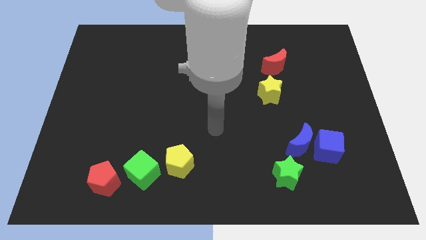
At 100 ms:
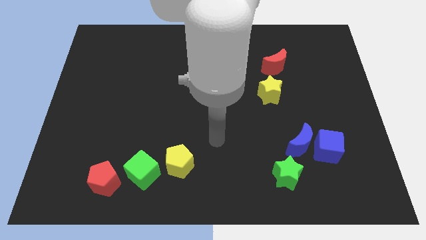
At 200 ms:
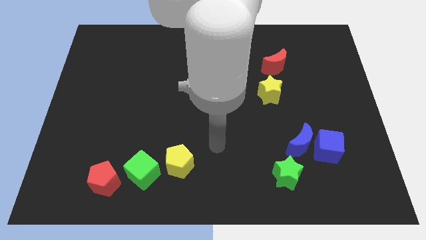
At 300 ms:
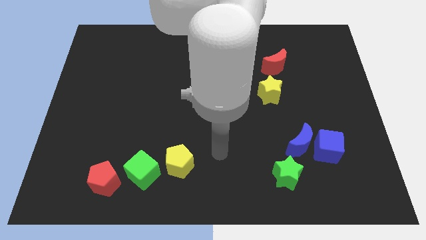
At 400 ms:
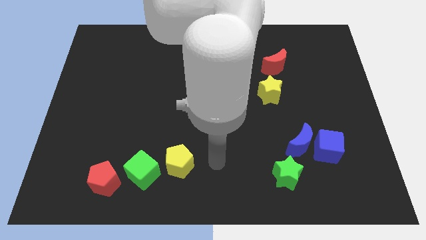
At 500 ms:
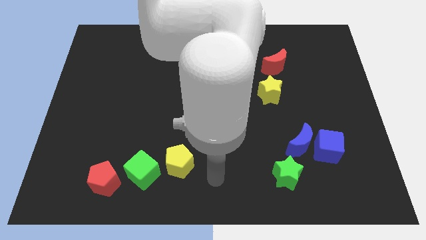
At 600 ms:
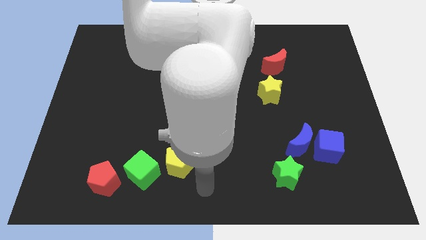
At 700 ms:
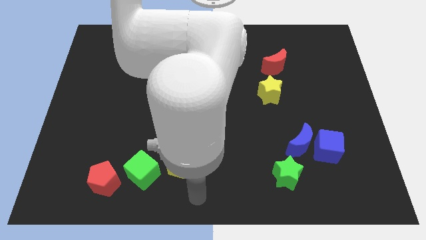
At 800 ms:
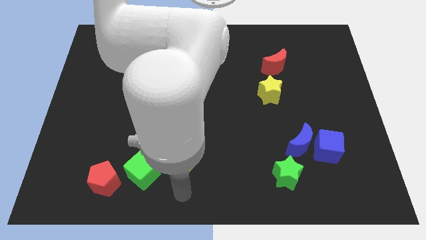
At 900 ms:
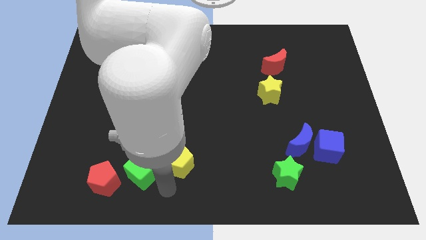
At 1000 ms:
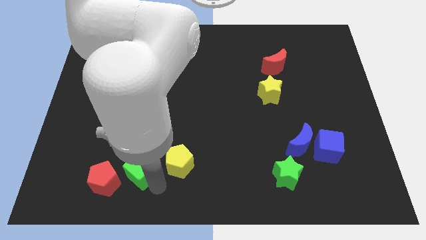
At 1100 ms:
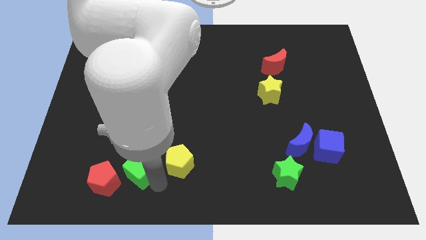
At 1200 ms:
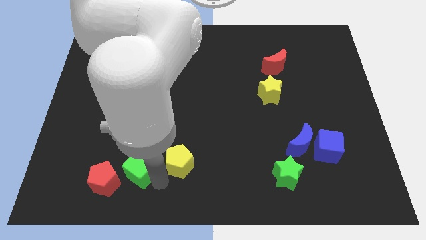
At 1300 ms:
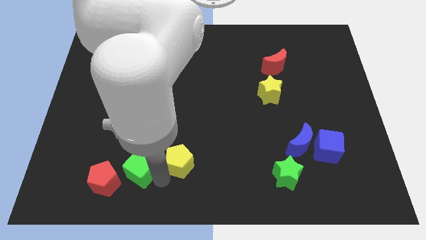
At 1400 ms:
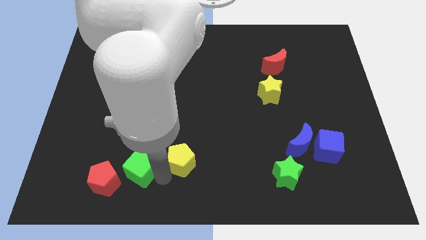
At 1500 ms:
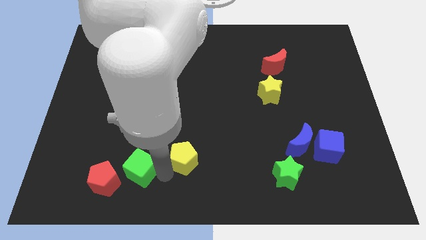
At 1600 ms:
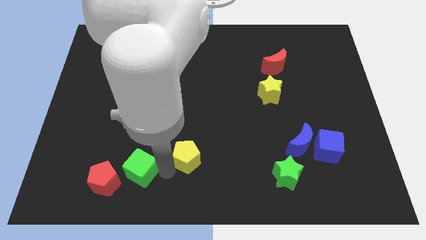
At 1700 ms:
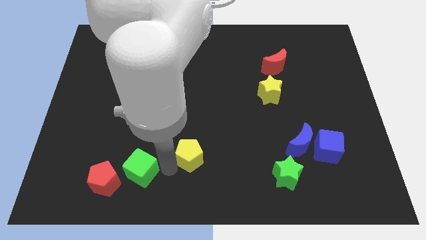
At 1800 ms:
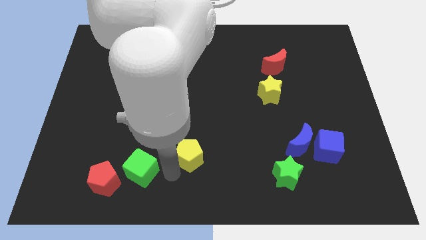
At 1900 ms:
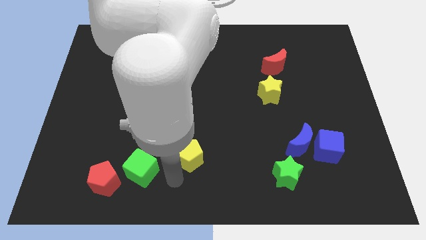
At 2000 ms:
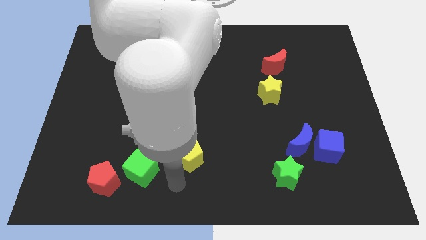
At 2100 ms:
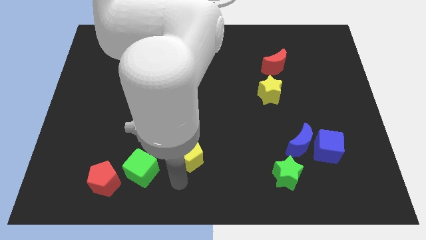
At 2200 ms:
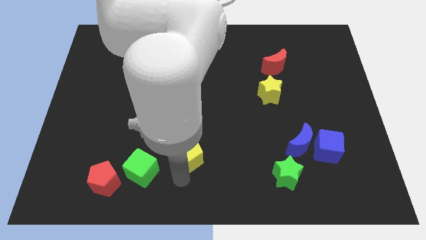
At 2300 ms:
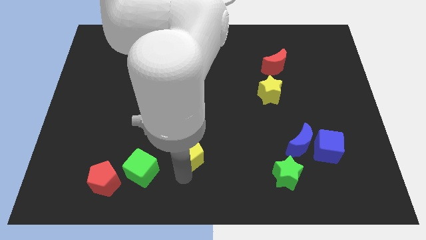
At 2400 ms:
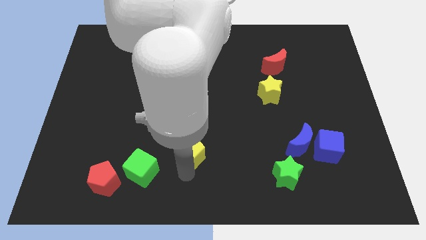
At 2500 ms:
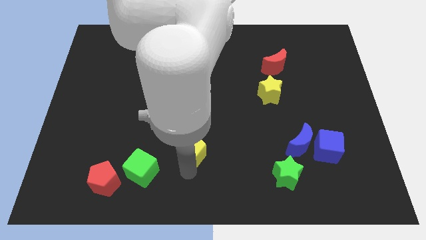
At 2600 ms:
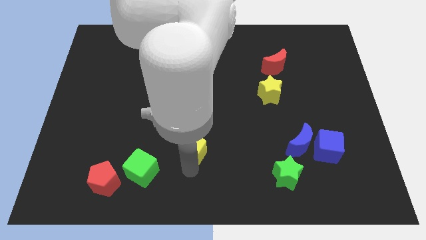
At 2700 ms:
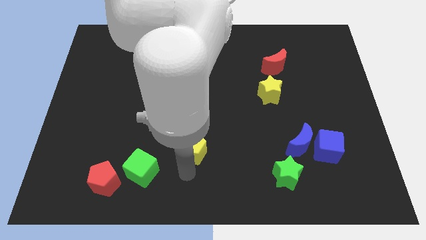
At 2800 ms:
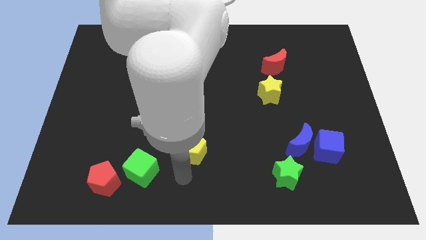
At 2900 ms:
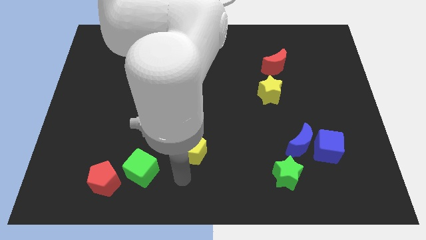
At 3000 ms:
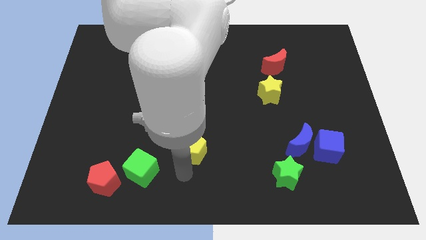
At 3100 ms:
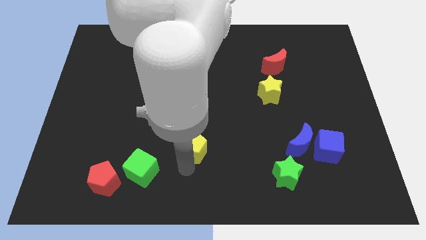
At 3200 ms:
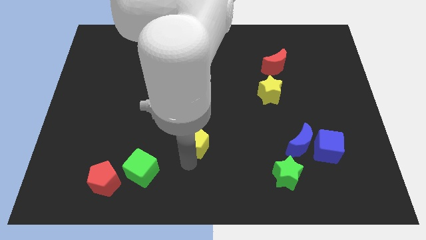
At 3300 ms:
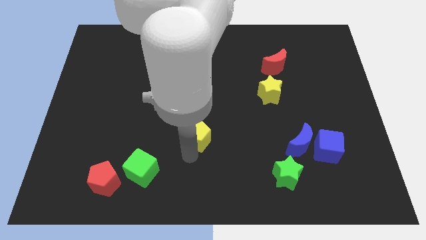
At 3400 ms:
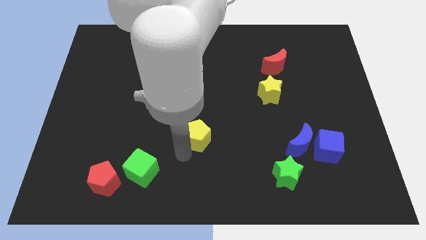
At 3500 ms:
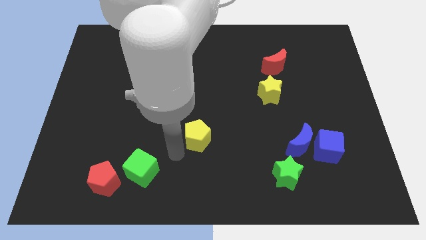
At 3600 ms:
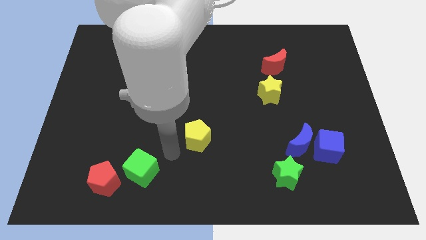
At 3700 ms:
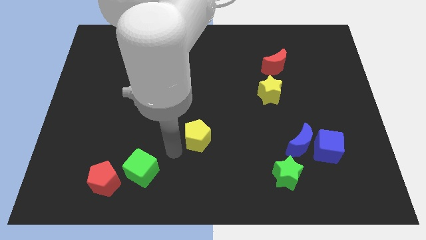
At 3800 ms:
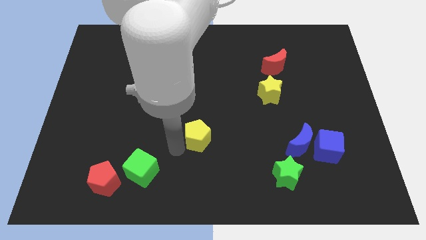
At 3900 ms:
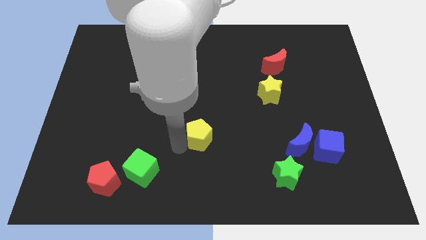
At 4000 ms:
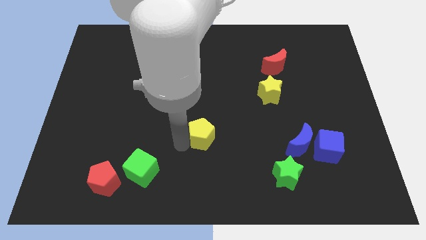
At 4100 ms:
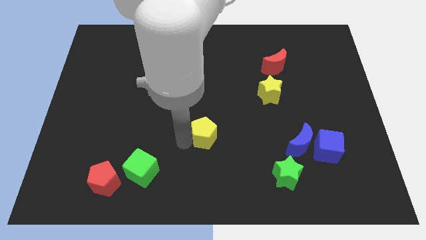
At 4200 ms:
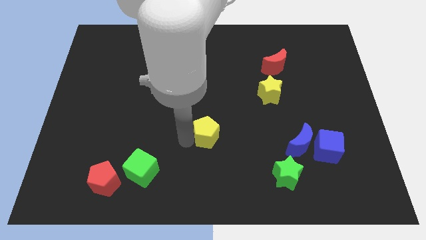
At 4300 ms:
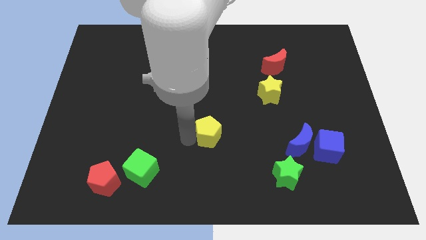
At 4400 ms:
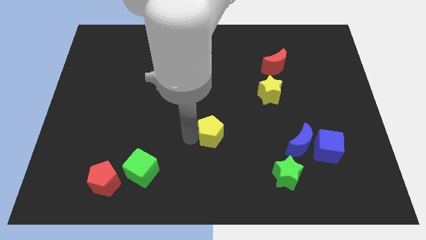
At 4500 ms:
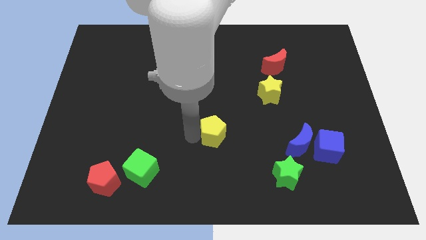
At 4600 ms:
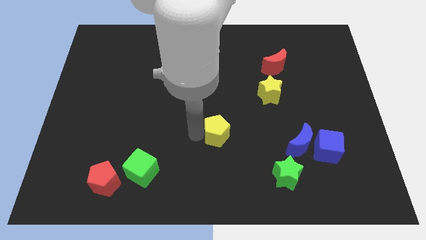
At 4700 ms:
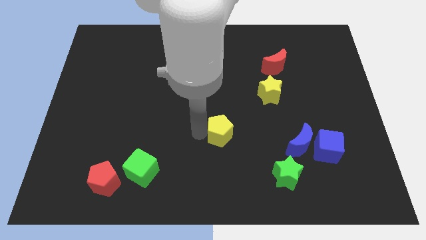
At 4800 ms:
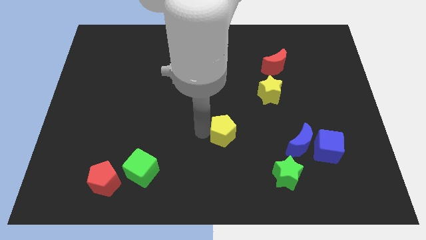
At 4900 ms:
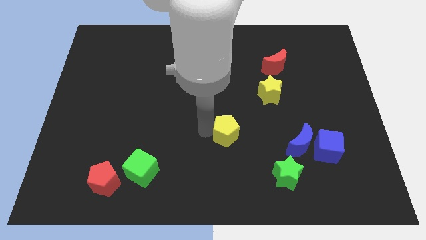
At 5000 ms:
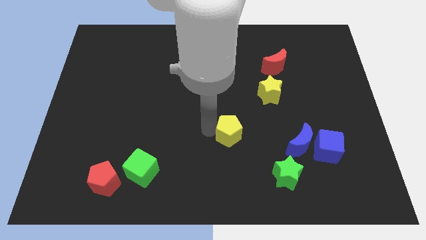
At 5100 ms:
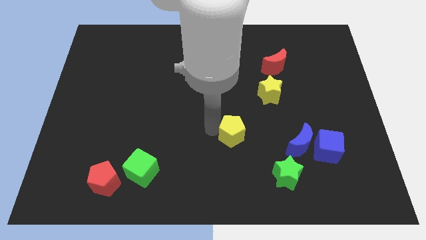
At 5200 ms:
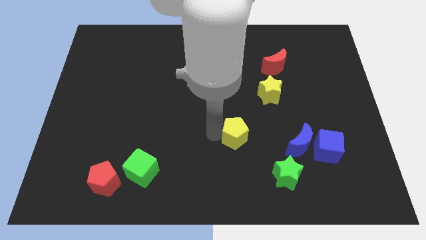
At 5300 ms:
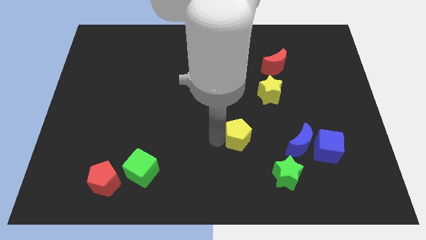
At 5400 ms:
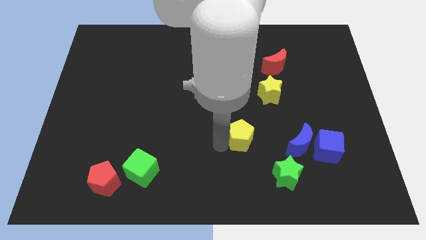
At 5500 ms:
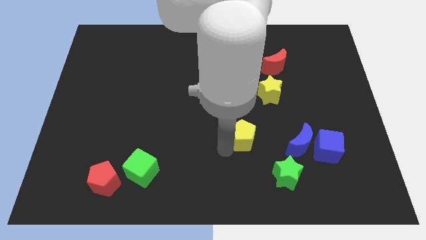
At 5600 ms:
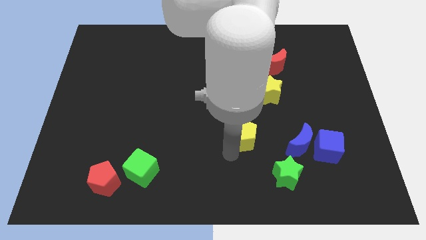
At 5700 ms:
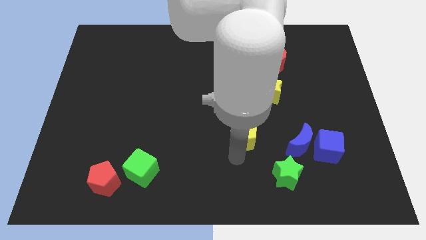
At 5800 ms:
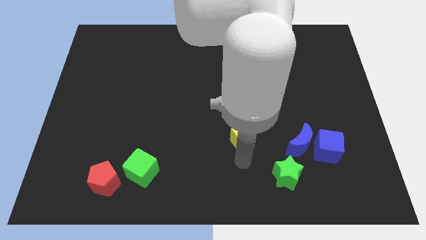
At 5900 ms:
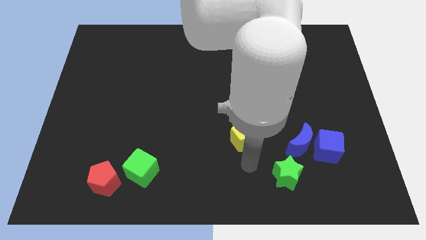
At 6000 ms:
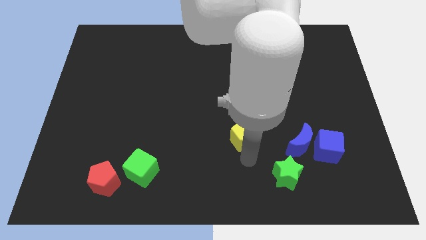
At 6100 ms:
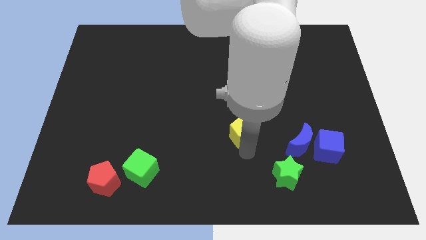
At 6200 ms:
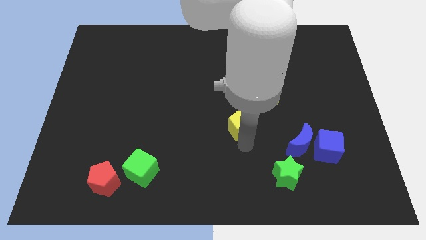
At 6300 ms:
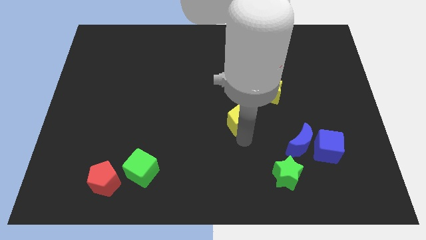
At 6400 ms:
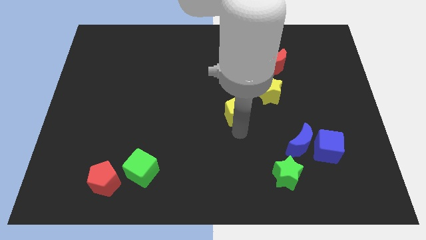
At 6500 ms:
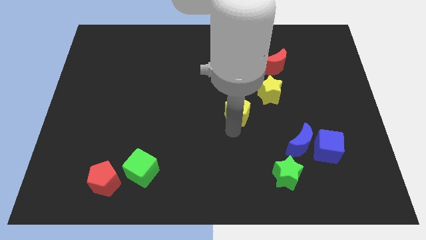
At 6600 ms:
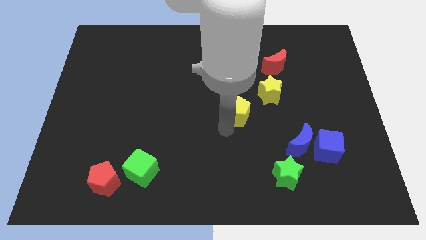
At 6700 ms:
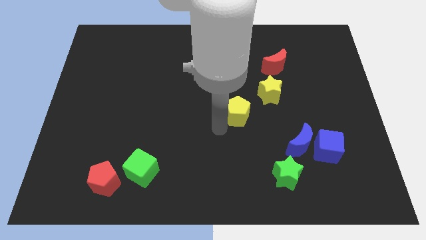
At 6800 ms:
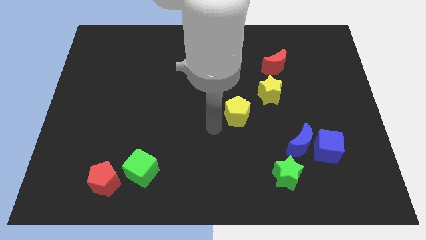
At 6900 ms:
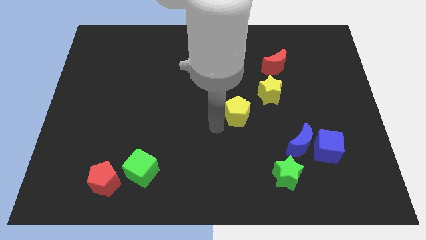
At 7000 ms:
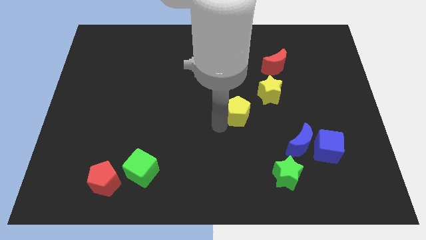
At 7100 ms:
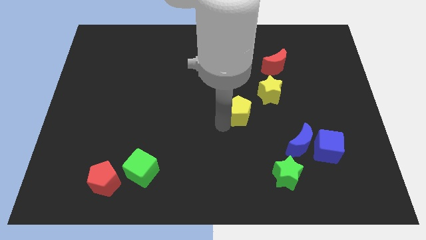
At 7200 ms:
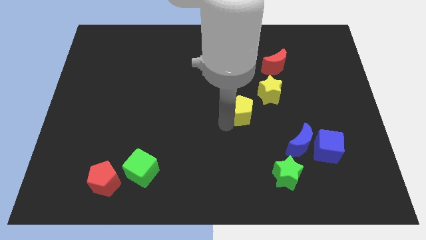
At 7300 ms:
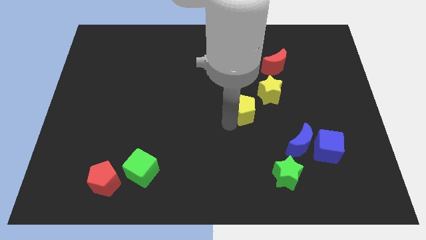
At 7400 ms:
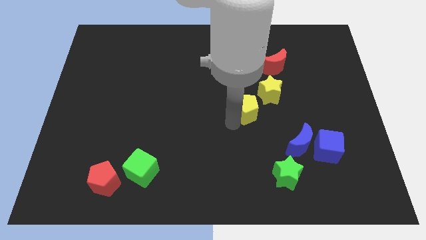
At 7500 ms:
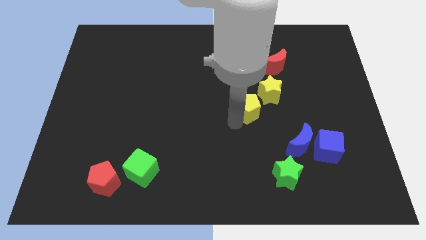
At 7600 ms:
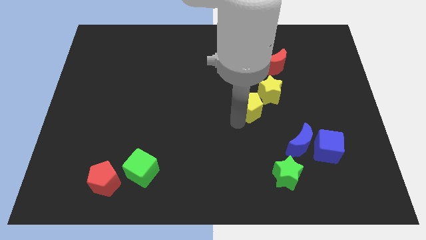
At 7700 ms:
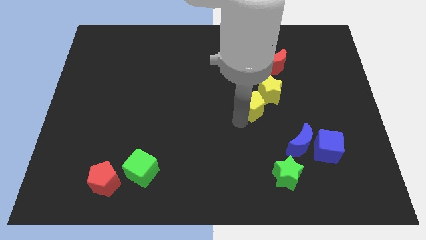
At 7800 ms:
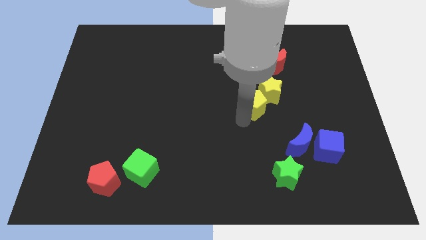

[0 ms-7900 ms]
move the yellow pentagon next to the yellow star
